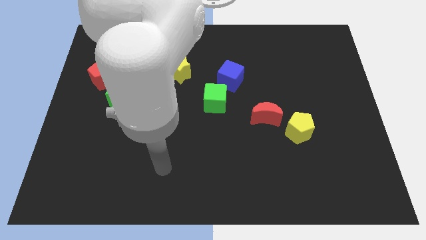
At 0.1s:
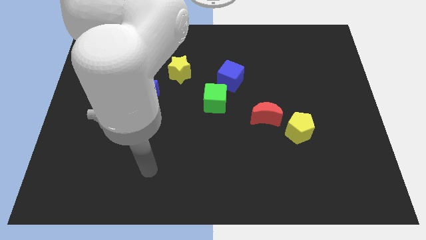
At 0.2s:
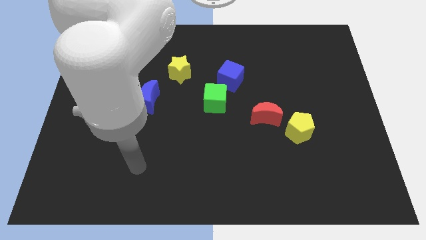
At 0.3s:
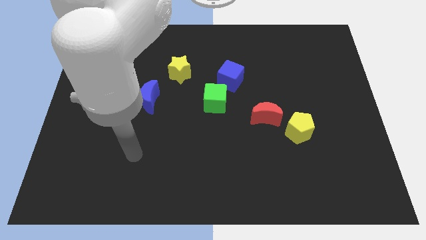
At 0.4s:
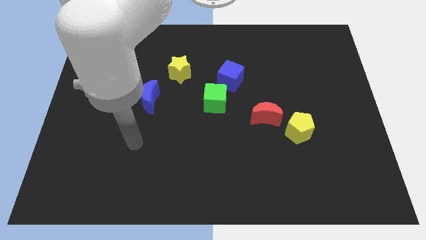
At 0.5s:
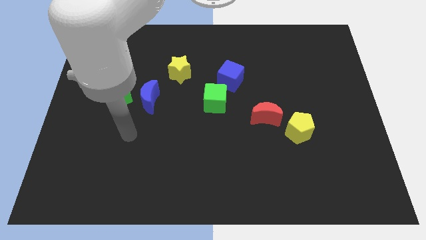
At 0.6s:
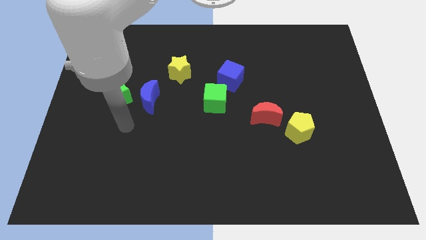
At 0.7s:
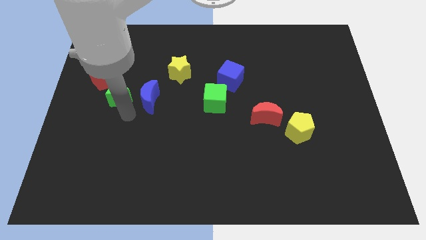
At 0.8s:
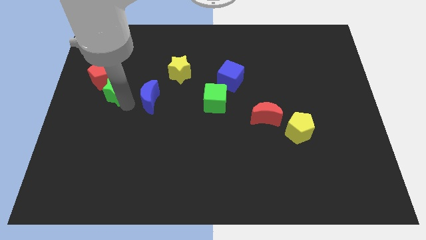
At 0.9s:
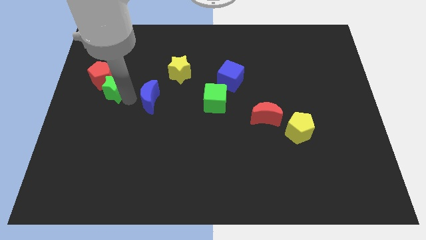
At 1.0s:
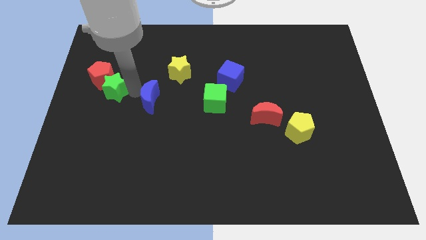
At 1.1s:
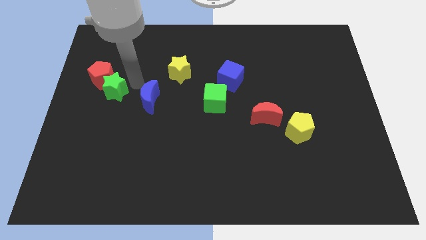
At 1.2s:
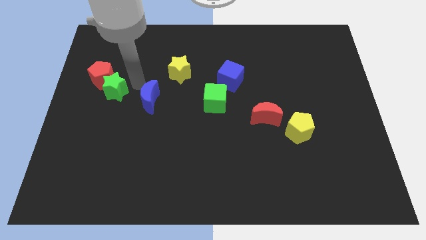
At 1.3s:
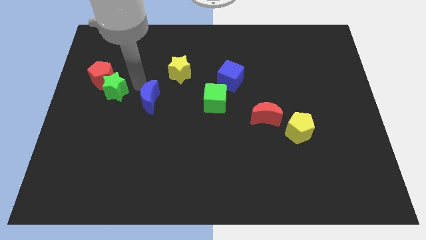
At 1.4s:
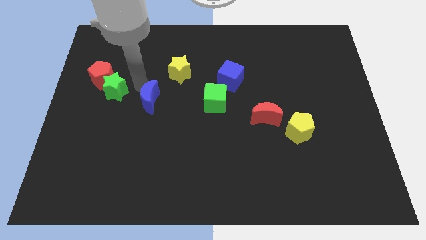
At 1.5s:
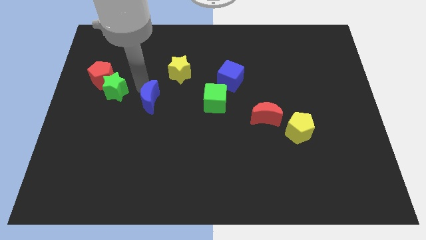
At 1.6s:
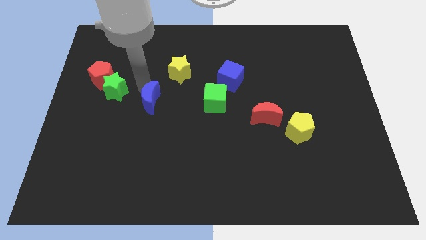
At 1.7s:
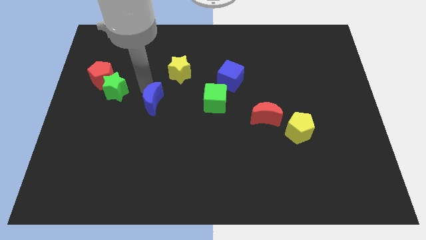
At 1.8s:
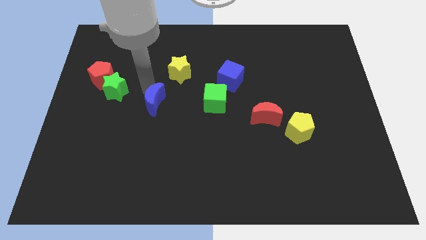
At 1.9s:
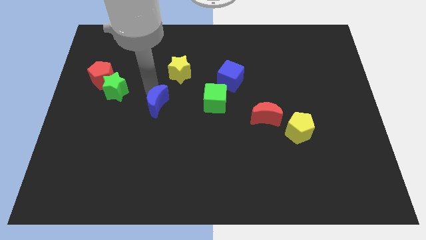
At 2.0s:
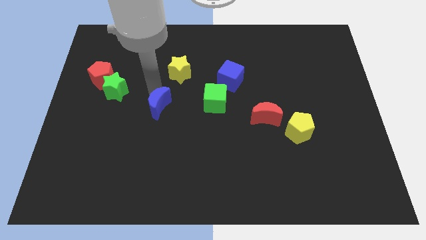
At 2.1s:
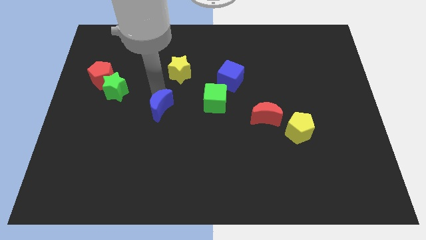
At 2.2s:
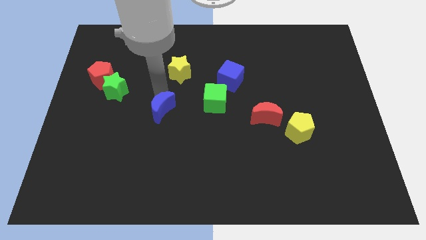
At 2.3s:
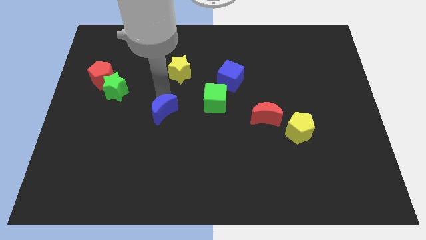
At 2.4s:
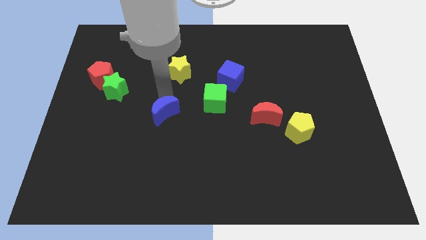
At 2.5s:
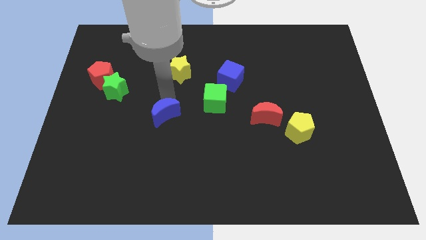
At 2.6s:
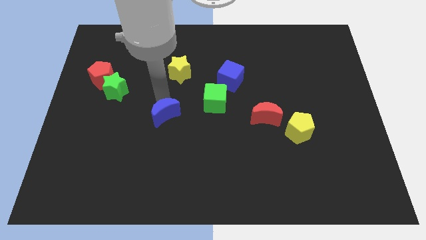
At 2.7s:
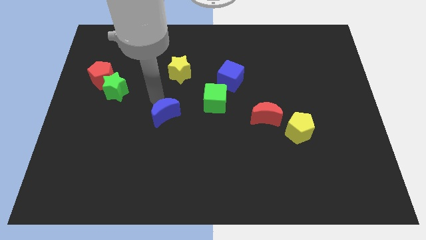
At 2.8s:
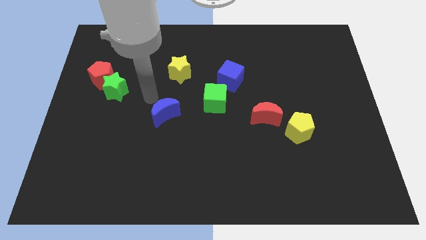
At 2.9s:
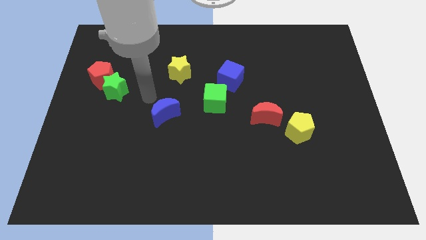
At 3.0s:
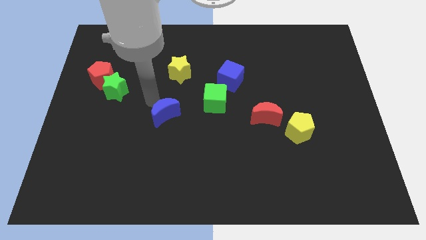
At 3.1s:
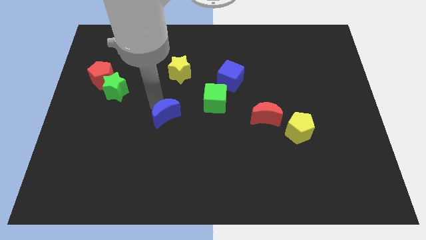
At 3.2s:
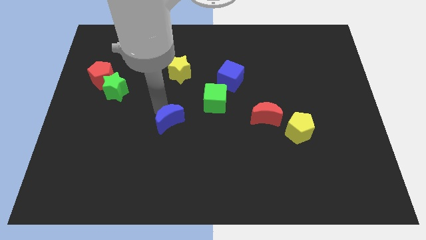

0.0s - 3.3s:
move the blue moon somewhat down and then to the right

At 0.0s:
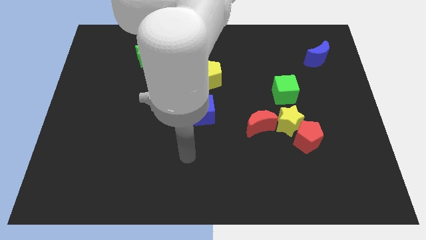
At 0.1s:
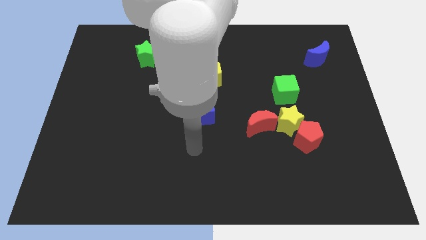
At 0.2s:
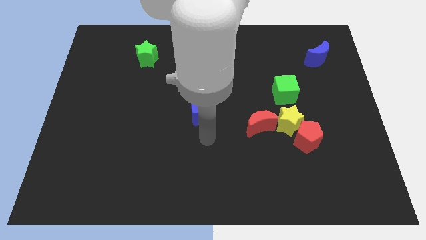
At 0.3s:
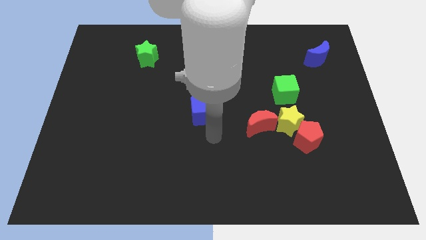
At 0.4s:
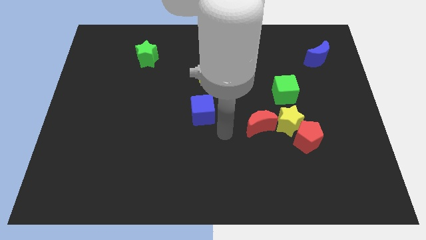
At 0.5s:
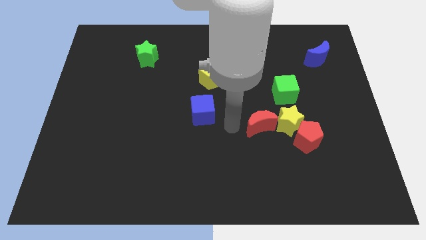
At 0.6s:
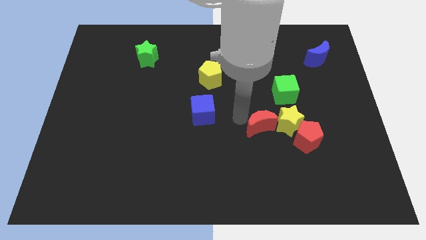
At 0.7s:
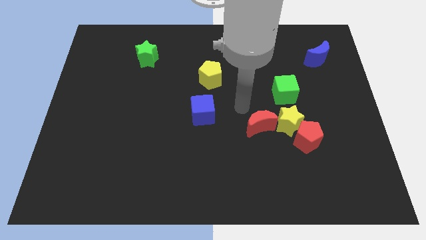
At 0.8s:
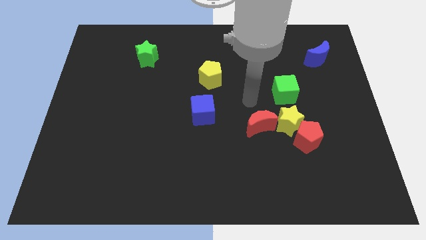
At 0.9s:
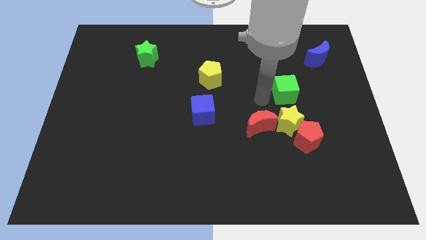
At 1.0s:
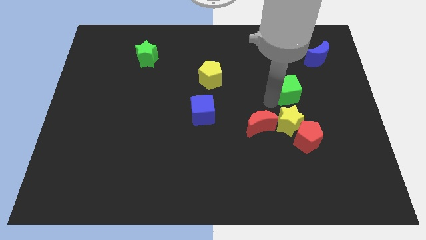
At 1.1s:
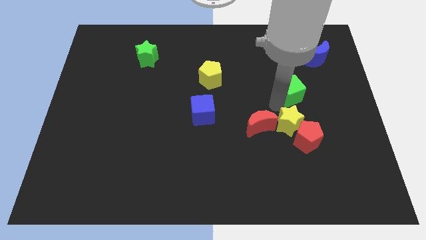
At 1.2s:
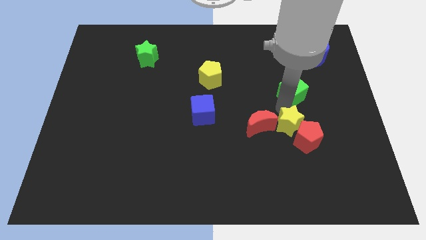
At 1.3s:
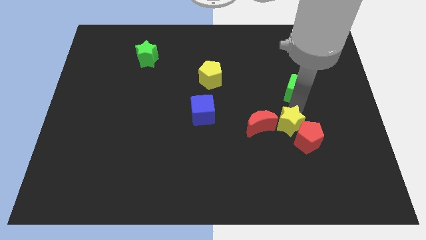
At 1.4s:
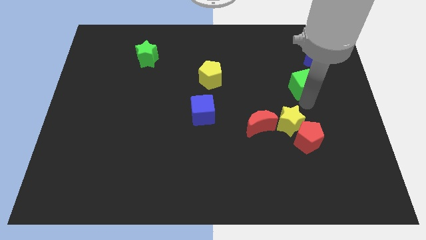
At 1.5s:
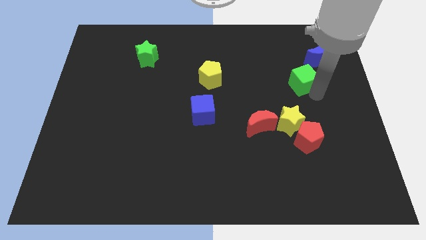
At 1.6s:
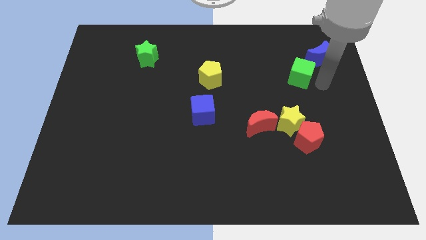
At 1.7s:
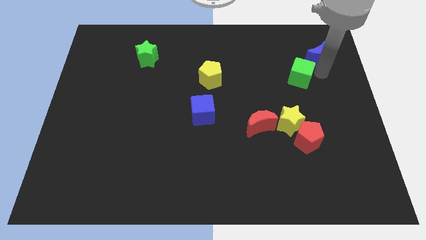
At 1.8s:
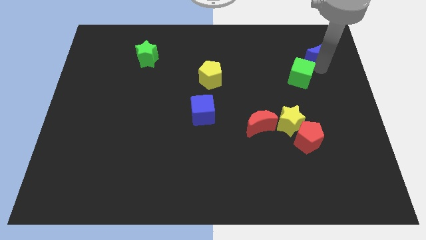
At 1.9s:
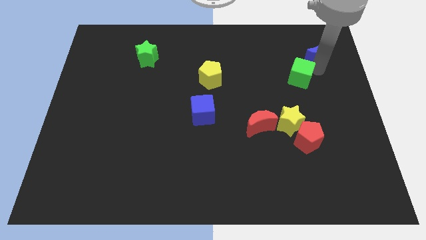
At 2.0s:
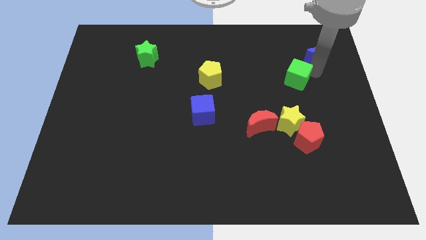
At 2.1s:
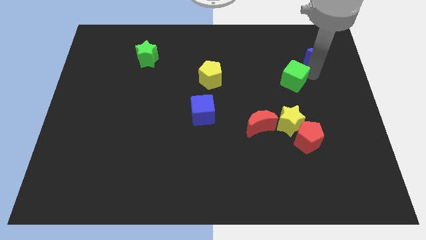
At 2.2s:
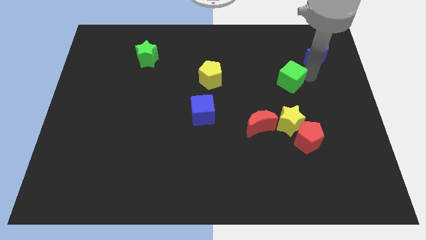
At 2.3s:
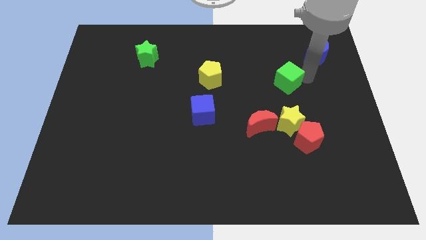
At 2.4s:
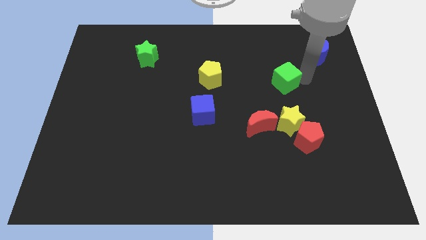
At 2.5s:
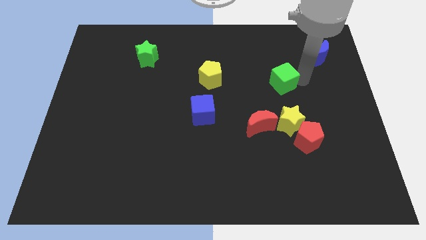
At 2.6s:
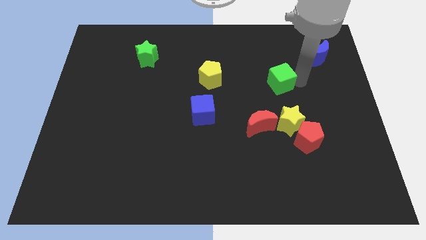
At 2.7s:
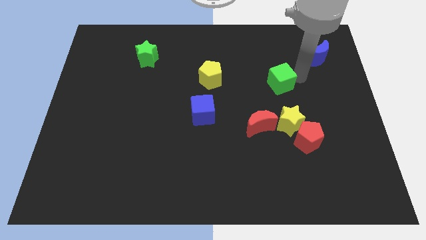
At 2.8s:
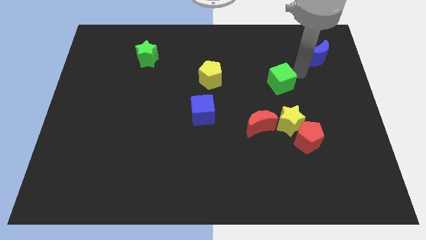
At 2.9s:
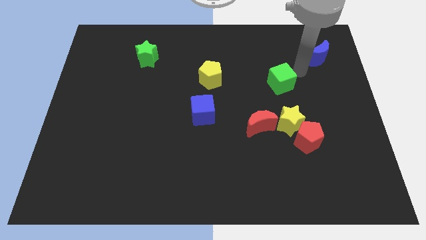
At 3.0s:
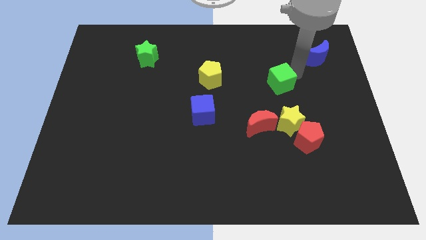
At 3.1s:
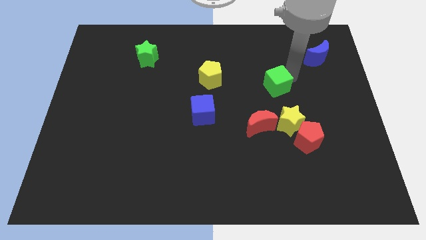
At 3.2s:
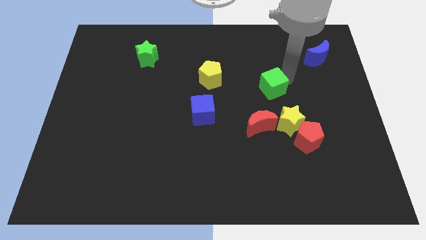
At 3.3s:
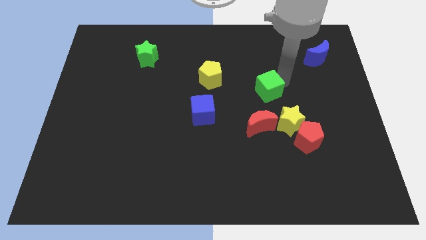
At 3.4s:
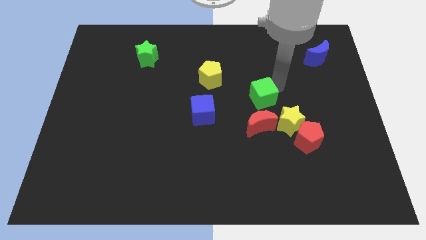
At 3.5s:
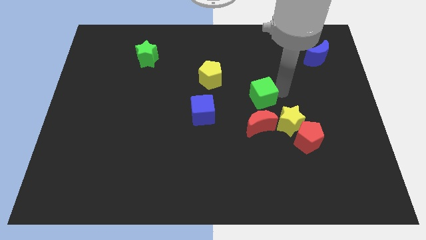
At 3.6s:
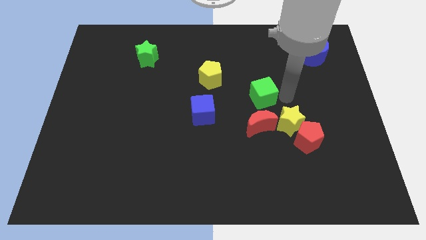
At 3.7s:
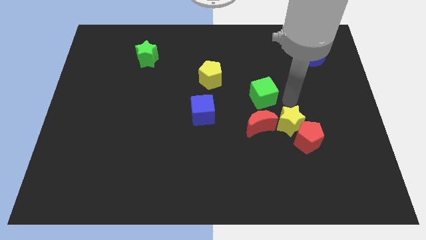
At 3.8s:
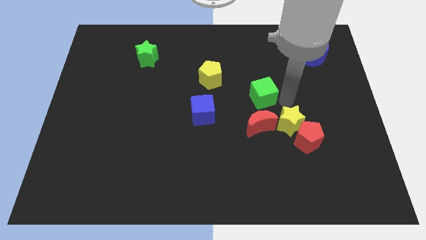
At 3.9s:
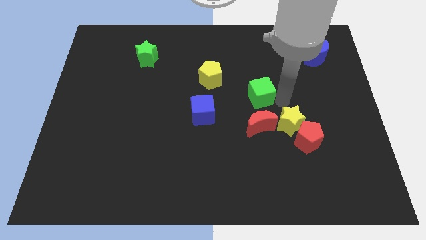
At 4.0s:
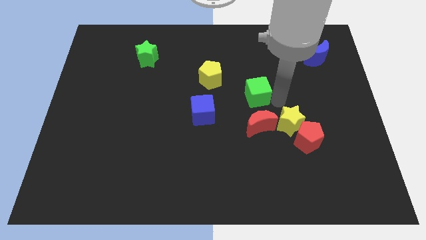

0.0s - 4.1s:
push the green cube a bit left

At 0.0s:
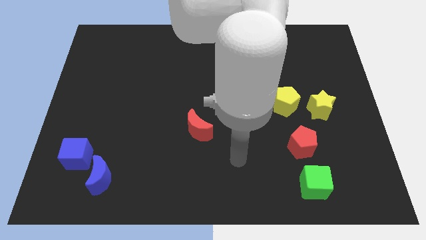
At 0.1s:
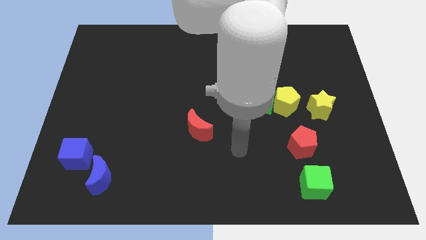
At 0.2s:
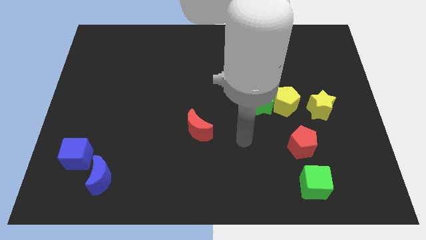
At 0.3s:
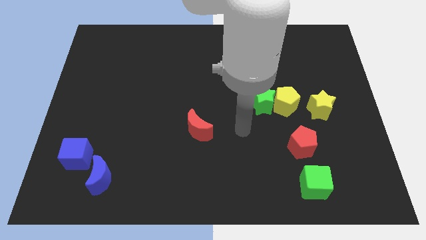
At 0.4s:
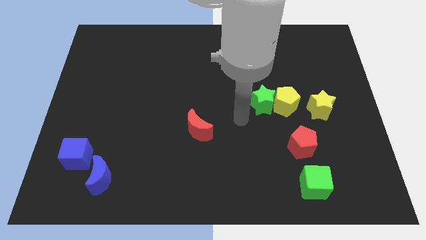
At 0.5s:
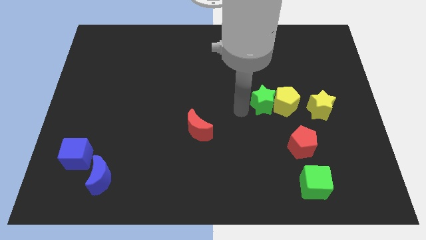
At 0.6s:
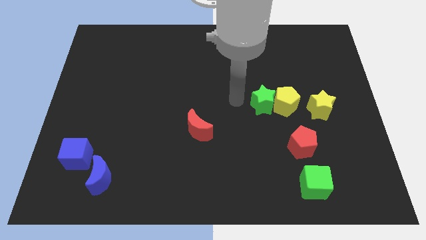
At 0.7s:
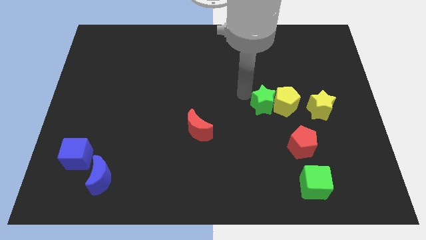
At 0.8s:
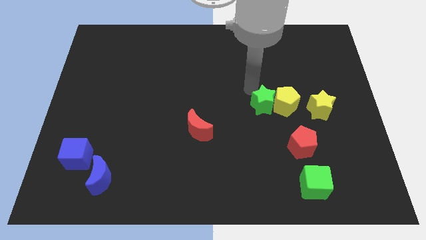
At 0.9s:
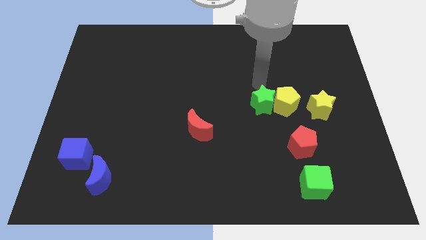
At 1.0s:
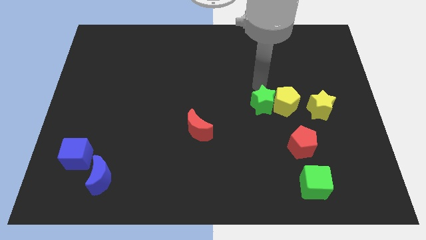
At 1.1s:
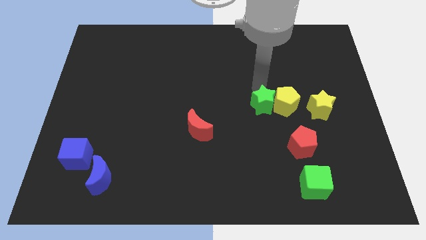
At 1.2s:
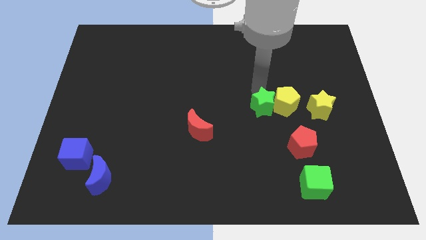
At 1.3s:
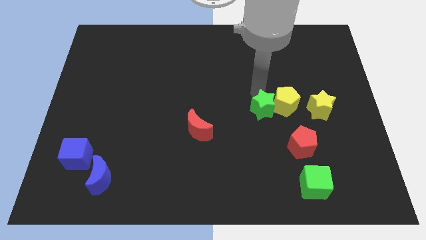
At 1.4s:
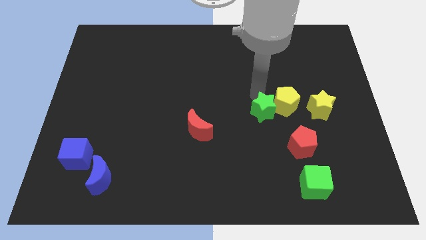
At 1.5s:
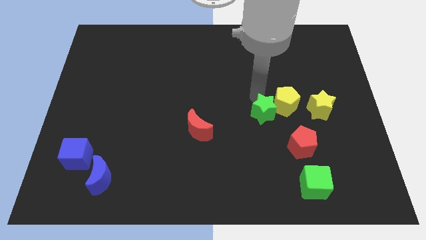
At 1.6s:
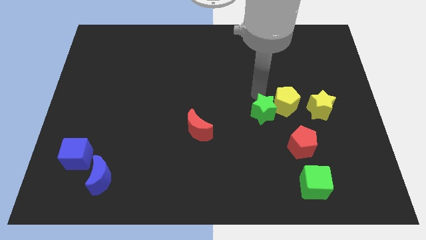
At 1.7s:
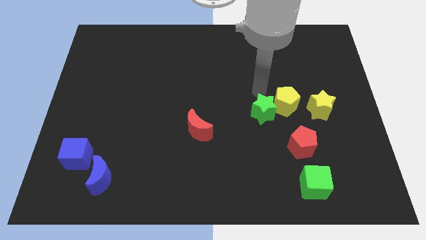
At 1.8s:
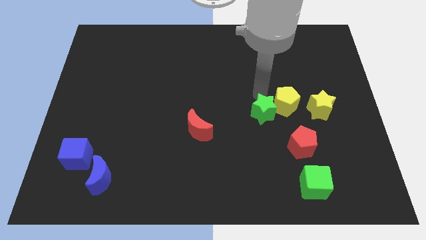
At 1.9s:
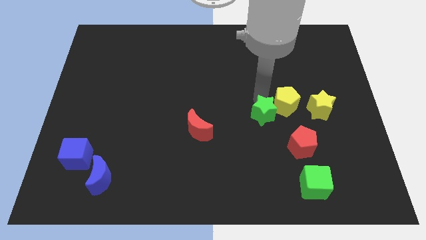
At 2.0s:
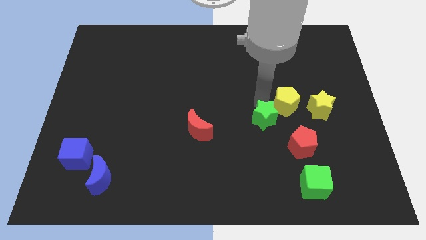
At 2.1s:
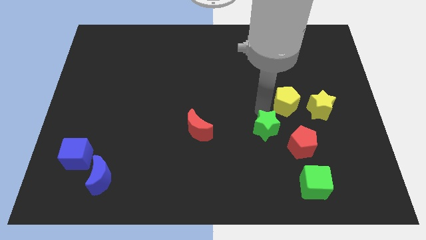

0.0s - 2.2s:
slightly push the green star downwards
